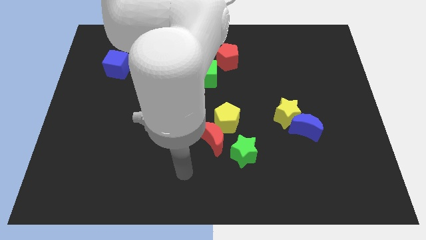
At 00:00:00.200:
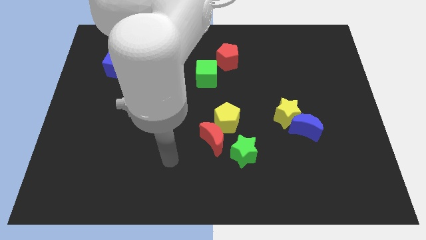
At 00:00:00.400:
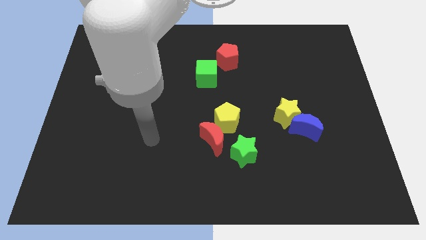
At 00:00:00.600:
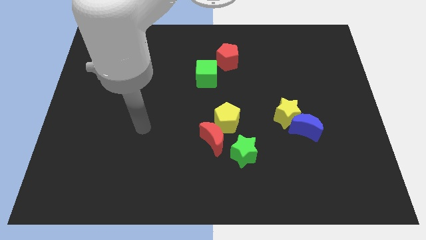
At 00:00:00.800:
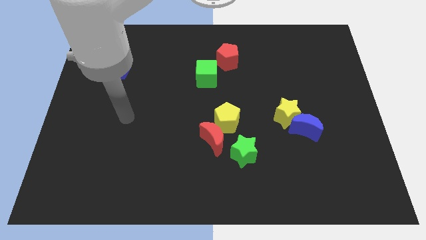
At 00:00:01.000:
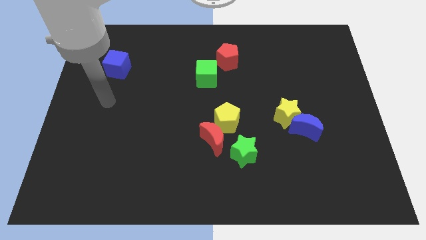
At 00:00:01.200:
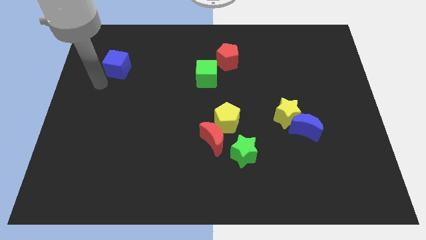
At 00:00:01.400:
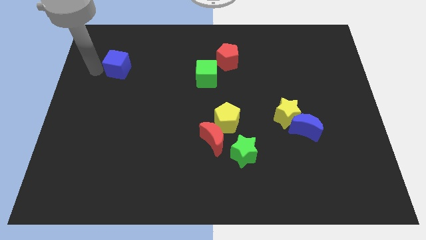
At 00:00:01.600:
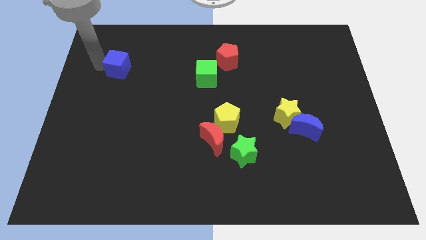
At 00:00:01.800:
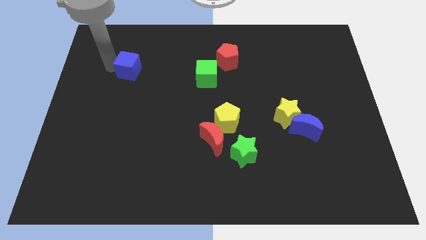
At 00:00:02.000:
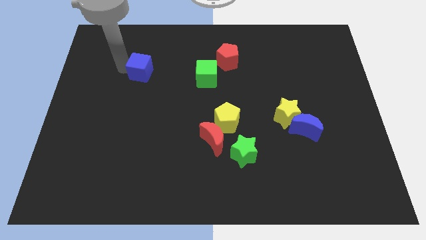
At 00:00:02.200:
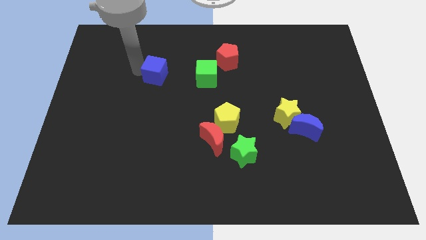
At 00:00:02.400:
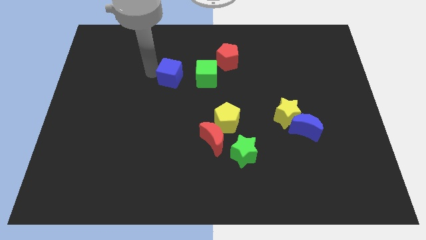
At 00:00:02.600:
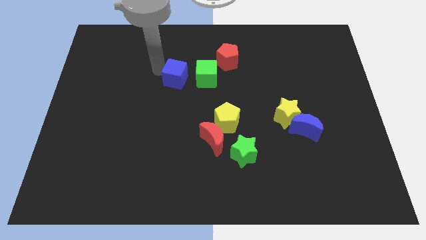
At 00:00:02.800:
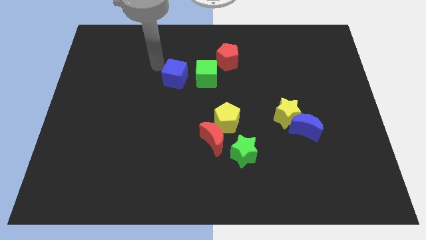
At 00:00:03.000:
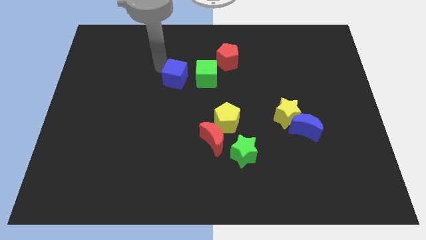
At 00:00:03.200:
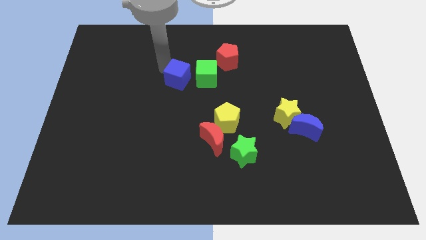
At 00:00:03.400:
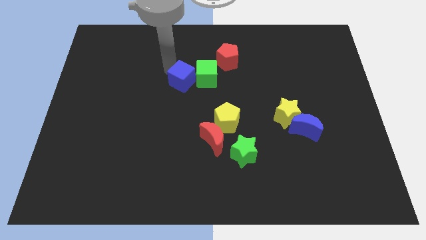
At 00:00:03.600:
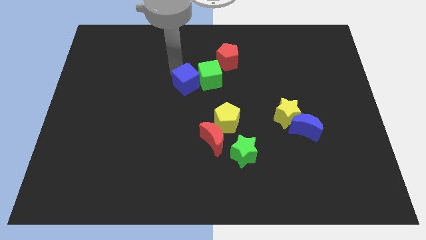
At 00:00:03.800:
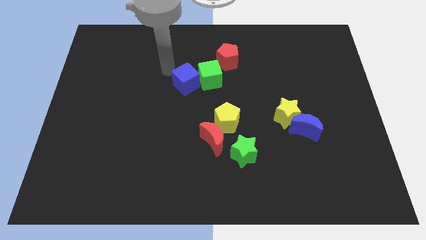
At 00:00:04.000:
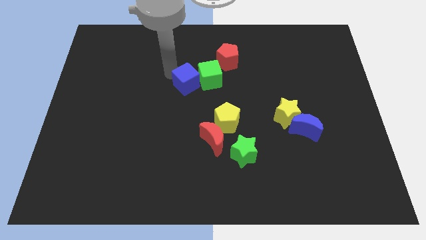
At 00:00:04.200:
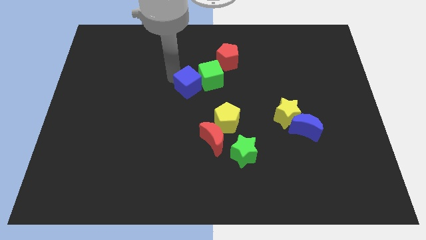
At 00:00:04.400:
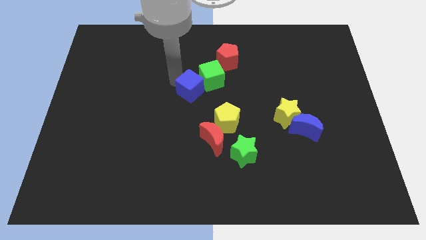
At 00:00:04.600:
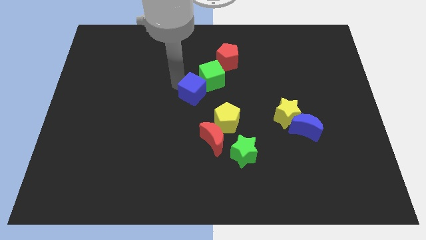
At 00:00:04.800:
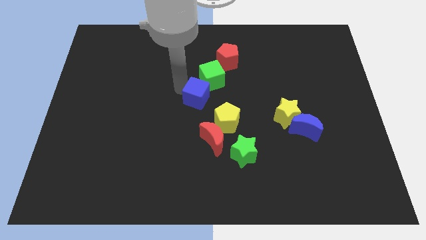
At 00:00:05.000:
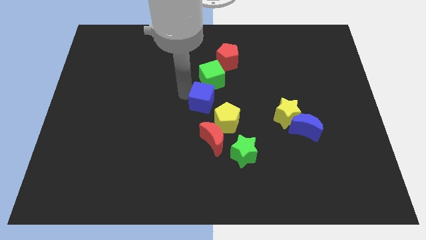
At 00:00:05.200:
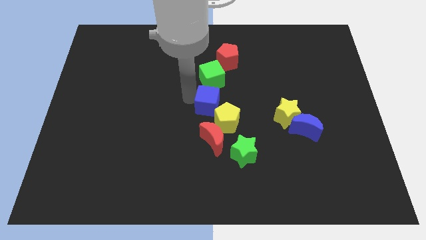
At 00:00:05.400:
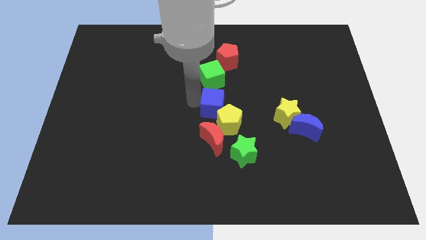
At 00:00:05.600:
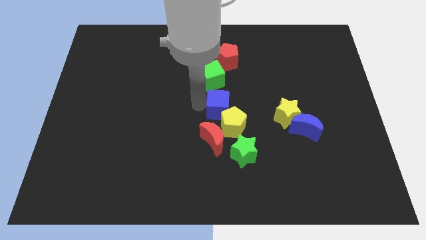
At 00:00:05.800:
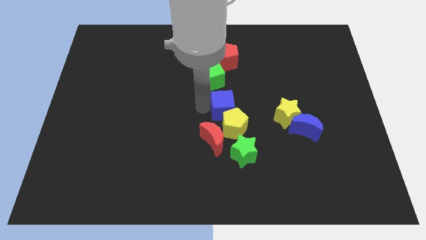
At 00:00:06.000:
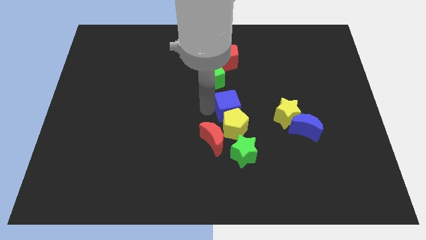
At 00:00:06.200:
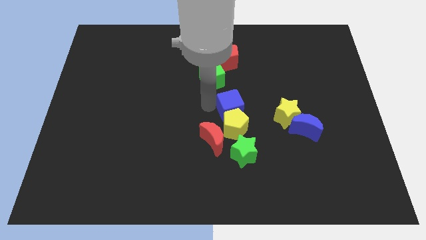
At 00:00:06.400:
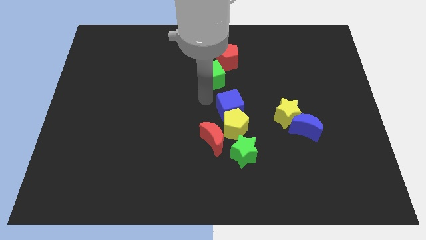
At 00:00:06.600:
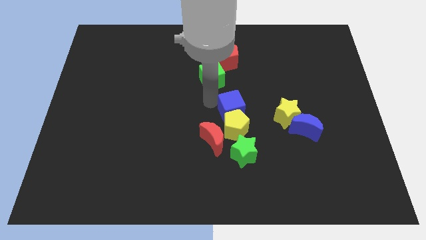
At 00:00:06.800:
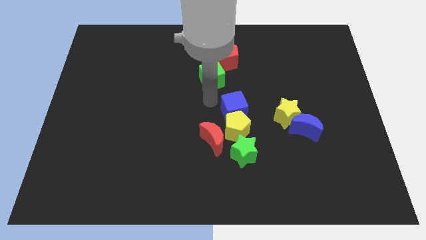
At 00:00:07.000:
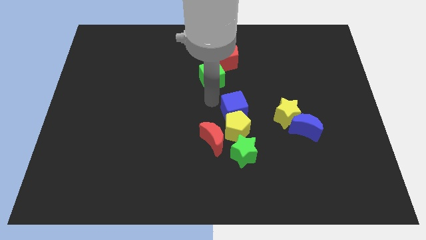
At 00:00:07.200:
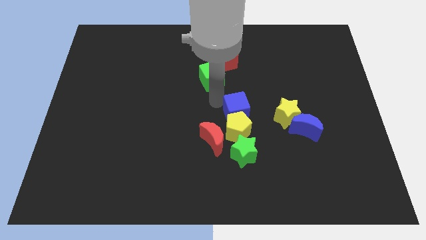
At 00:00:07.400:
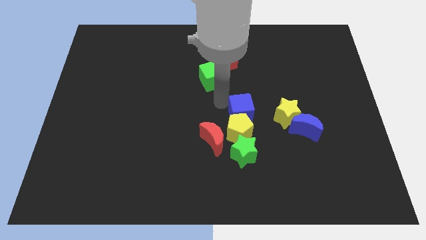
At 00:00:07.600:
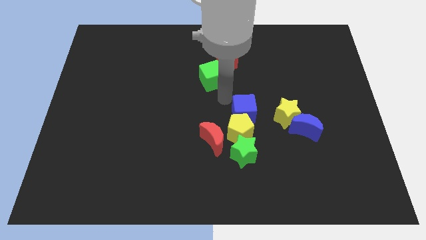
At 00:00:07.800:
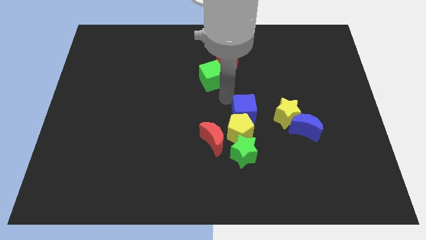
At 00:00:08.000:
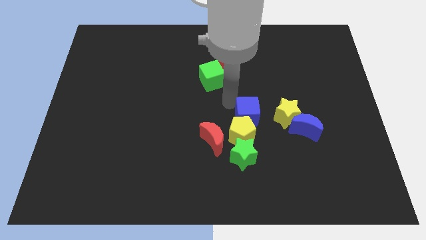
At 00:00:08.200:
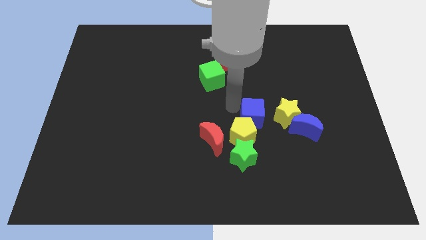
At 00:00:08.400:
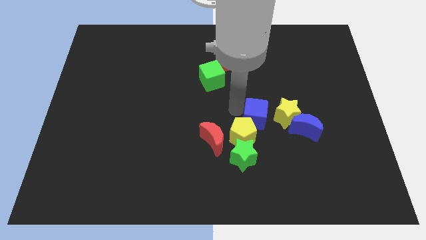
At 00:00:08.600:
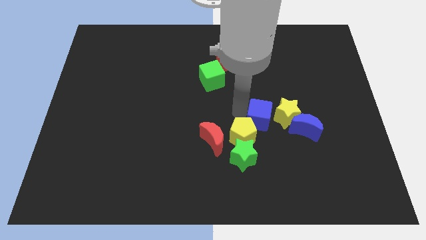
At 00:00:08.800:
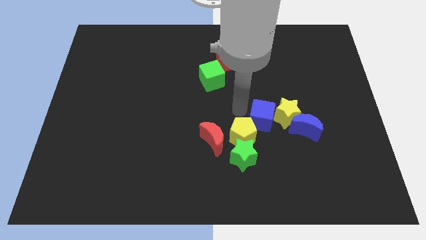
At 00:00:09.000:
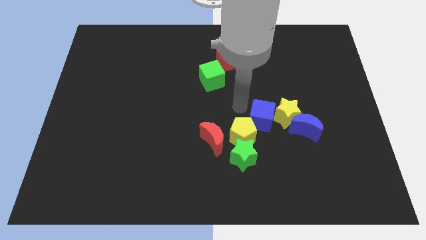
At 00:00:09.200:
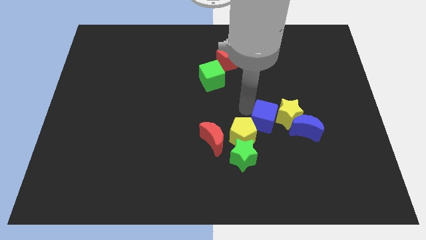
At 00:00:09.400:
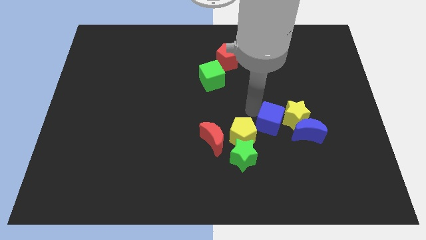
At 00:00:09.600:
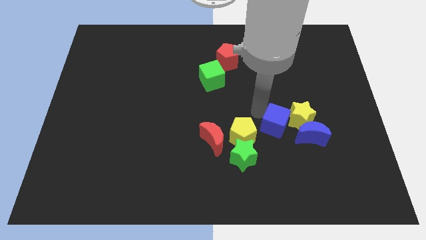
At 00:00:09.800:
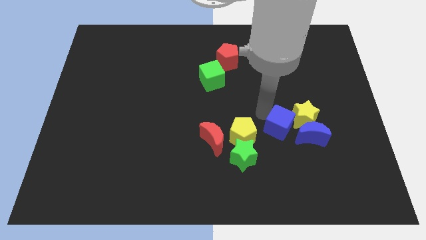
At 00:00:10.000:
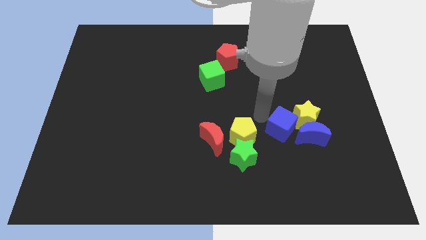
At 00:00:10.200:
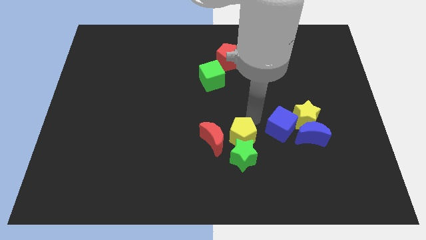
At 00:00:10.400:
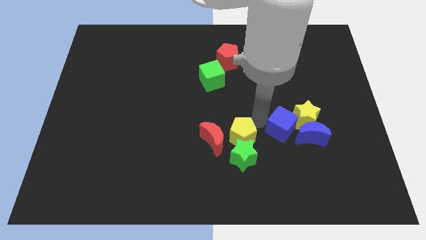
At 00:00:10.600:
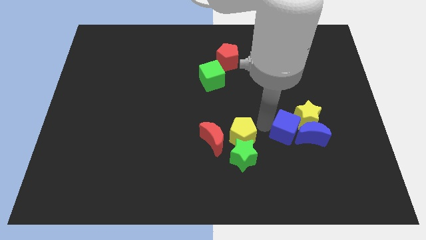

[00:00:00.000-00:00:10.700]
push the blue cube towards the blue moon

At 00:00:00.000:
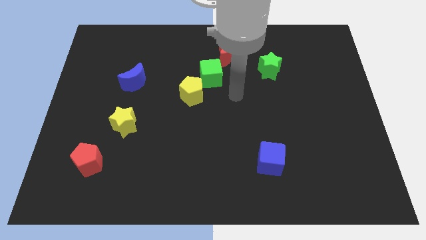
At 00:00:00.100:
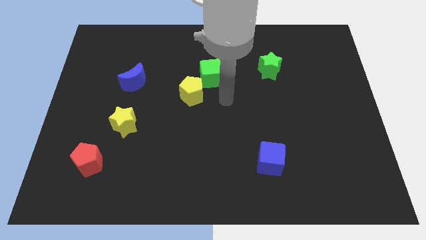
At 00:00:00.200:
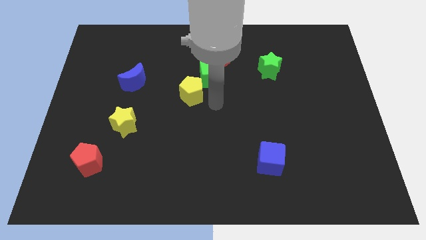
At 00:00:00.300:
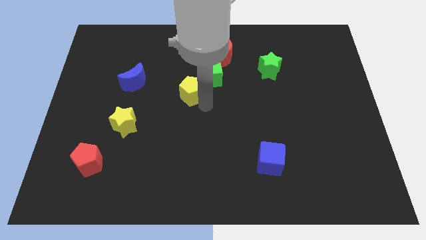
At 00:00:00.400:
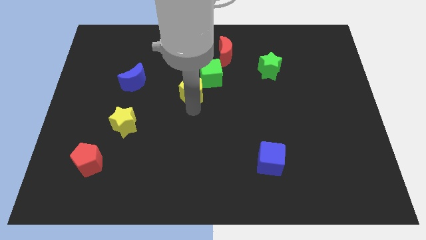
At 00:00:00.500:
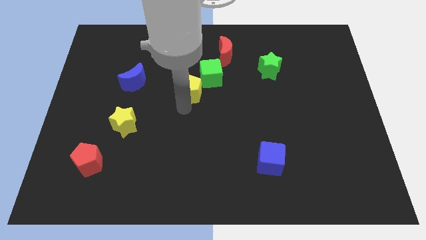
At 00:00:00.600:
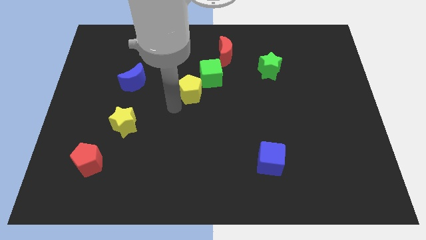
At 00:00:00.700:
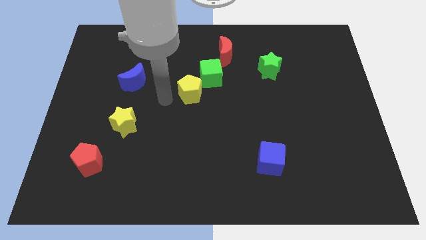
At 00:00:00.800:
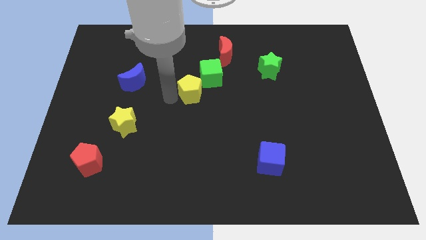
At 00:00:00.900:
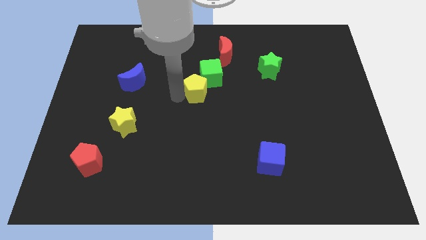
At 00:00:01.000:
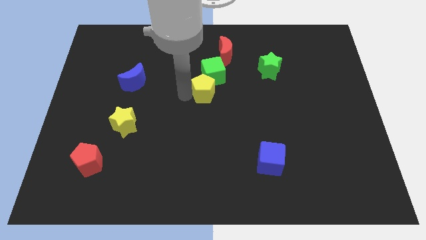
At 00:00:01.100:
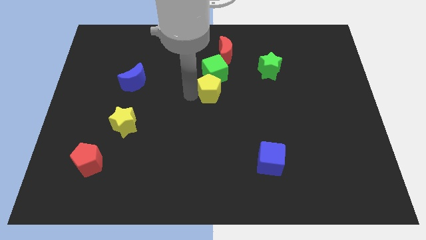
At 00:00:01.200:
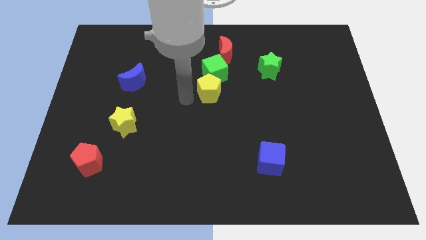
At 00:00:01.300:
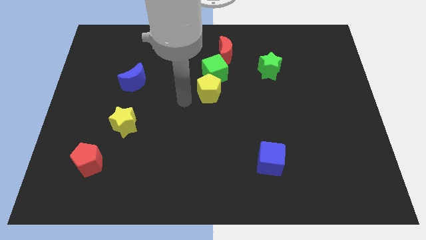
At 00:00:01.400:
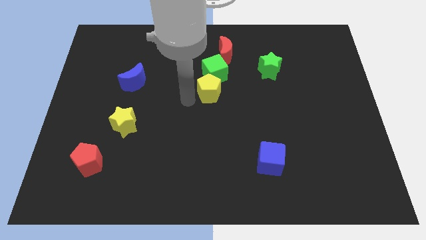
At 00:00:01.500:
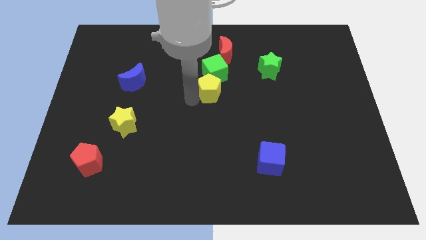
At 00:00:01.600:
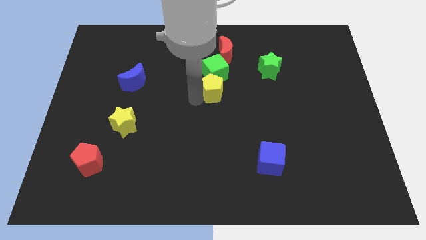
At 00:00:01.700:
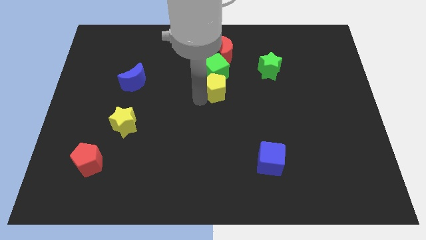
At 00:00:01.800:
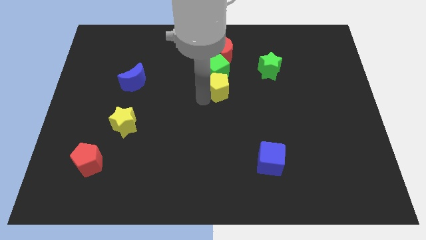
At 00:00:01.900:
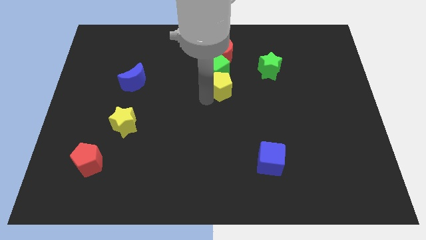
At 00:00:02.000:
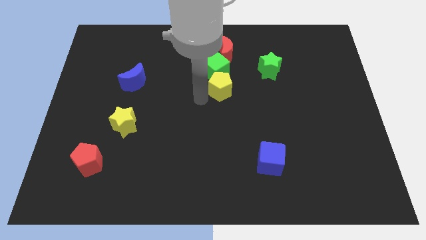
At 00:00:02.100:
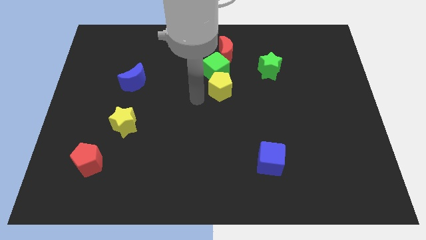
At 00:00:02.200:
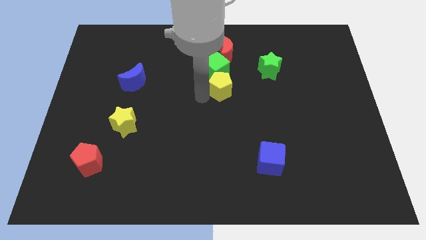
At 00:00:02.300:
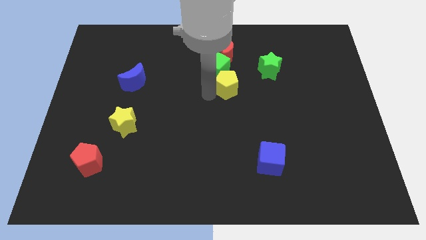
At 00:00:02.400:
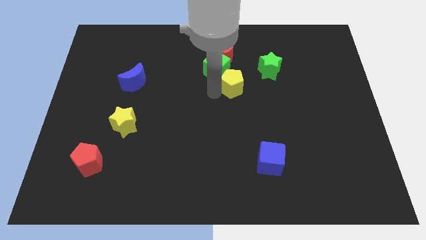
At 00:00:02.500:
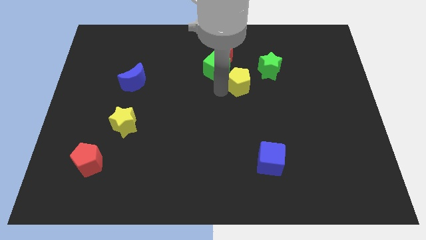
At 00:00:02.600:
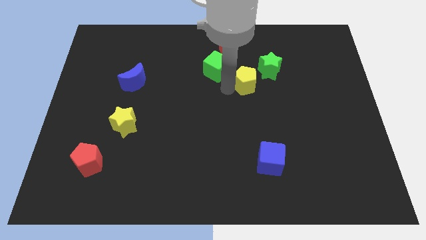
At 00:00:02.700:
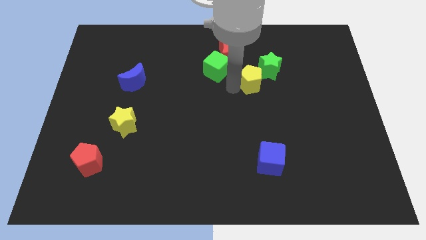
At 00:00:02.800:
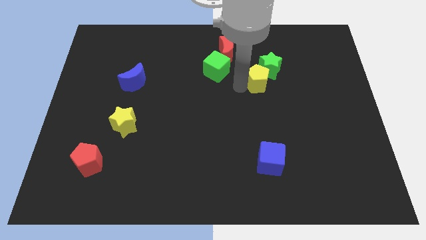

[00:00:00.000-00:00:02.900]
slide the yellow pentagon to the green star
